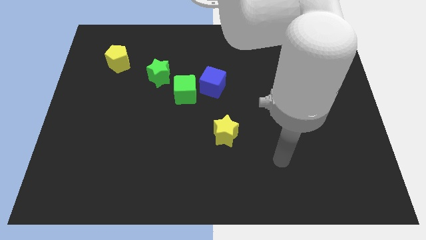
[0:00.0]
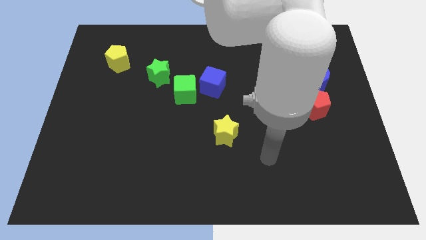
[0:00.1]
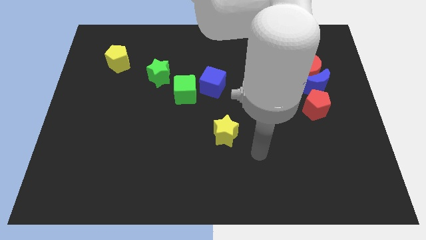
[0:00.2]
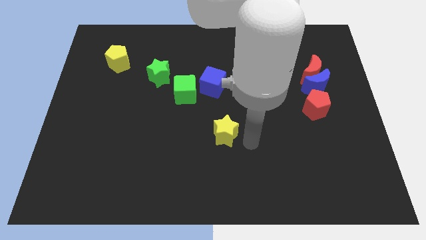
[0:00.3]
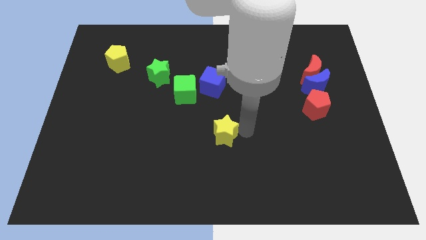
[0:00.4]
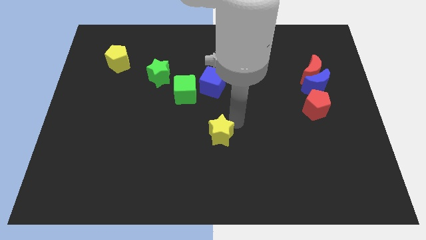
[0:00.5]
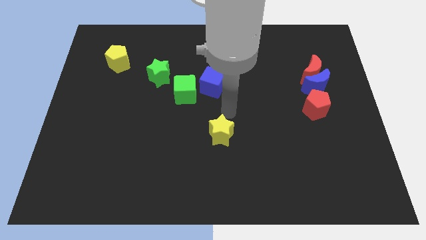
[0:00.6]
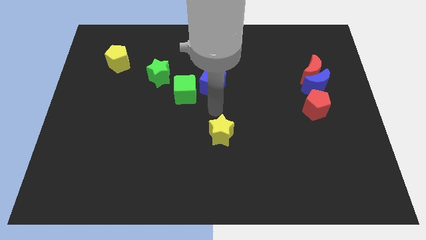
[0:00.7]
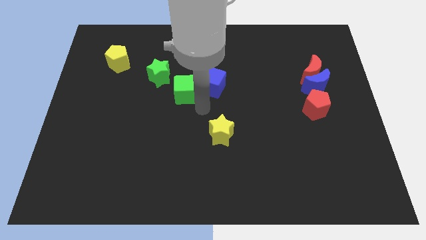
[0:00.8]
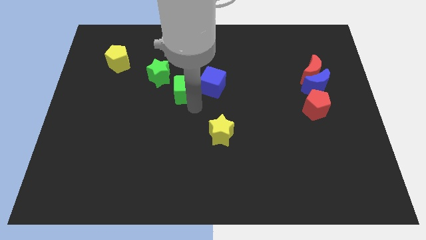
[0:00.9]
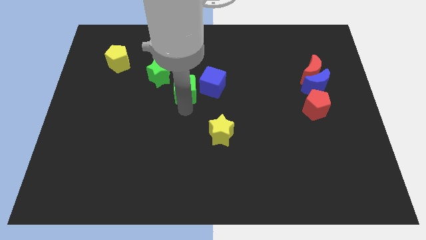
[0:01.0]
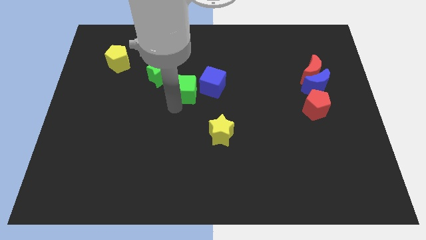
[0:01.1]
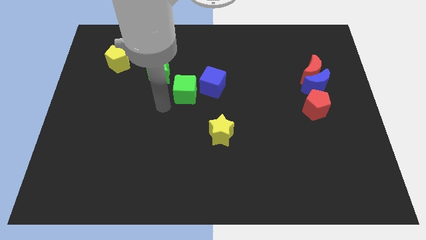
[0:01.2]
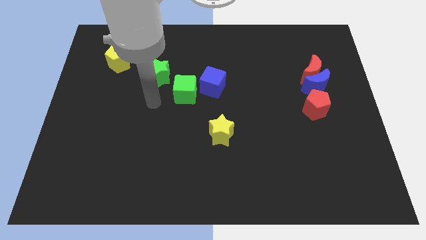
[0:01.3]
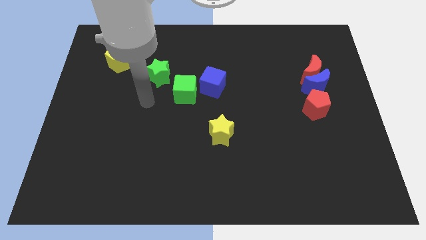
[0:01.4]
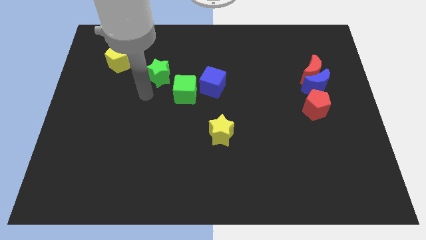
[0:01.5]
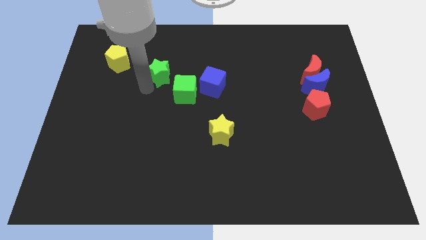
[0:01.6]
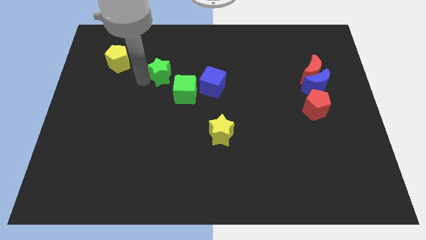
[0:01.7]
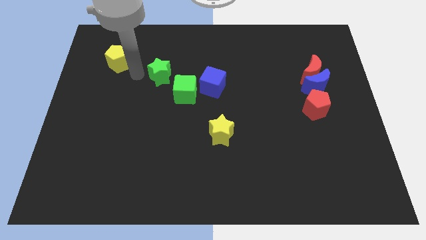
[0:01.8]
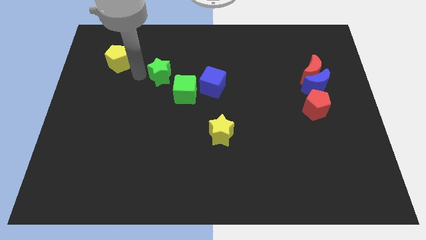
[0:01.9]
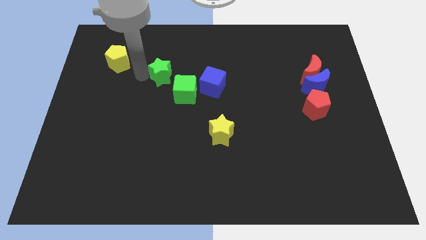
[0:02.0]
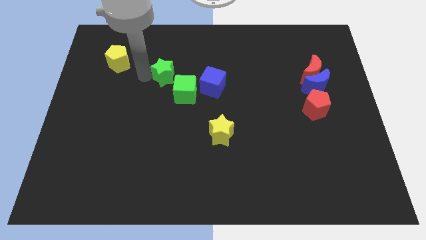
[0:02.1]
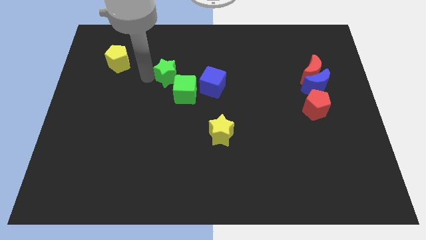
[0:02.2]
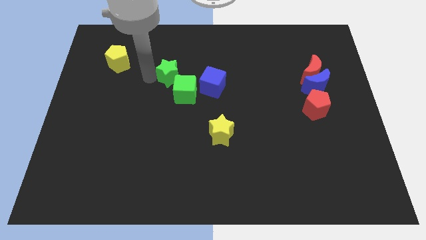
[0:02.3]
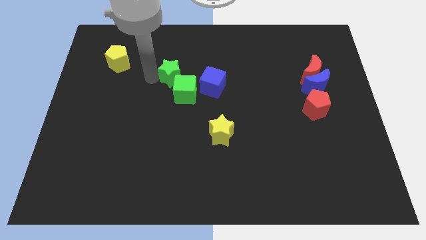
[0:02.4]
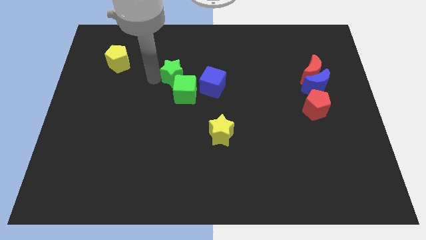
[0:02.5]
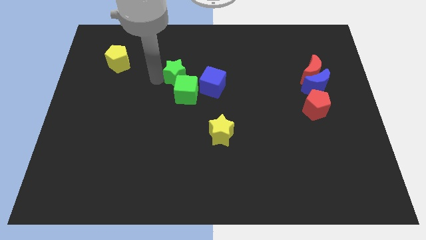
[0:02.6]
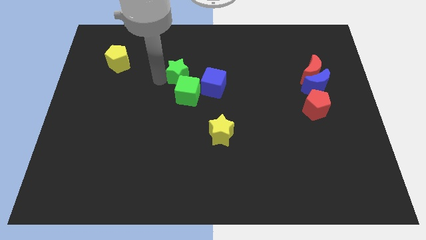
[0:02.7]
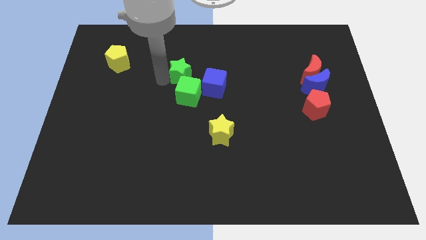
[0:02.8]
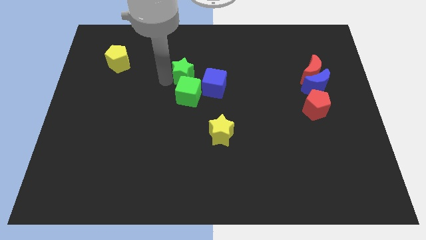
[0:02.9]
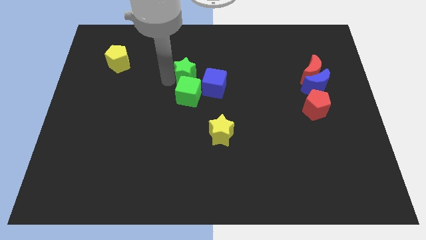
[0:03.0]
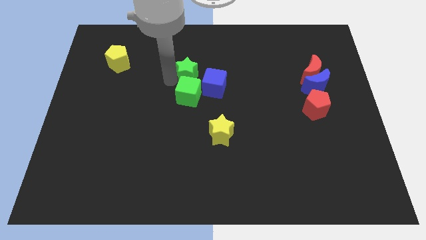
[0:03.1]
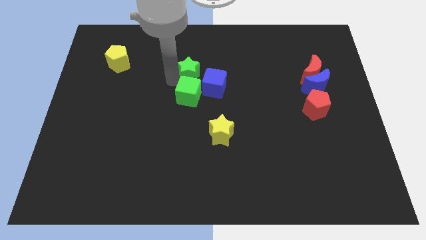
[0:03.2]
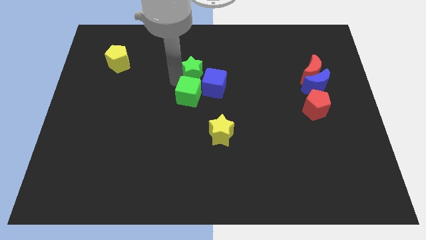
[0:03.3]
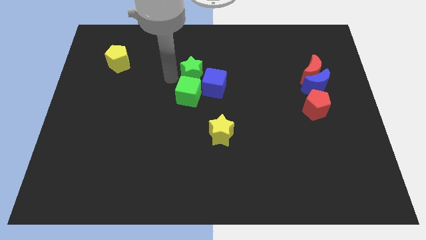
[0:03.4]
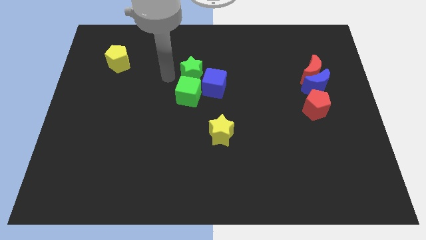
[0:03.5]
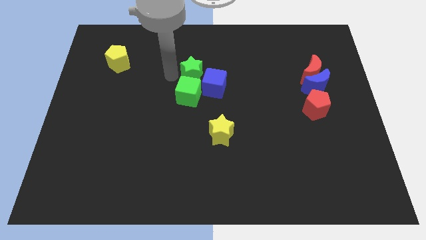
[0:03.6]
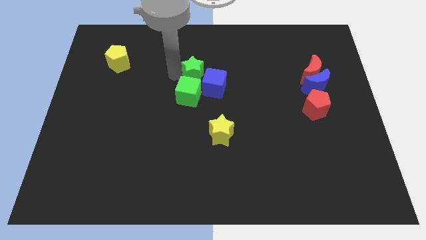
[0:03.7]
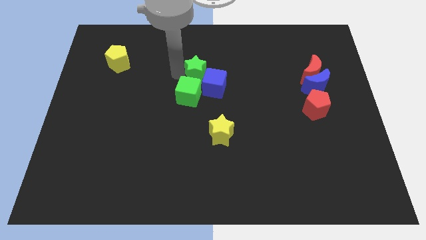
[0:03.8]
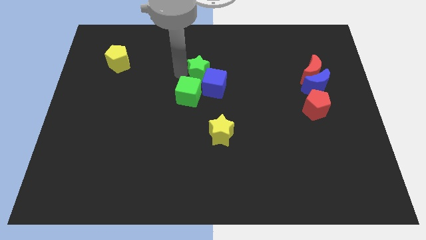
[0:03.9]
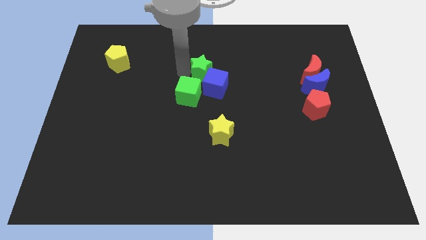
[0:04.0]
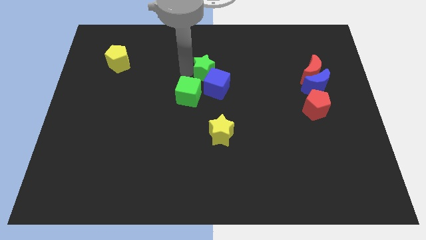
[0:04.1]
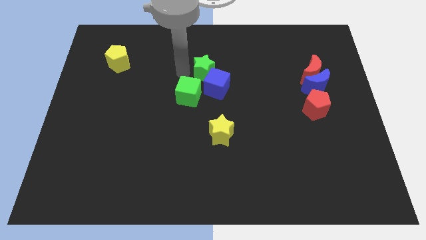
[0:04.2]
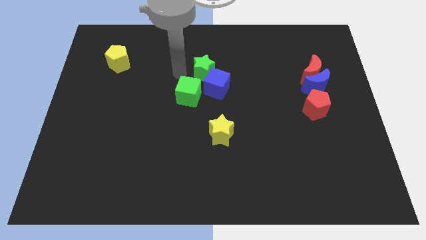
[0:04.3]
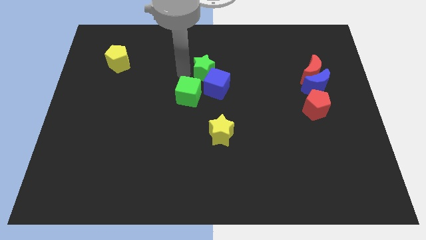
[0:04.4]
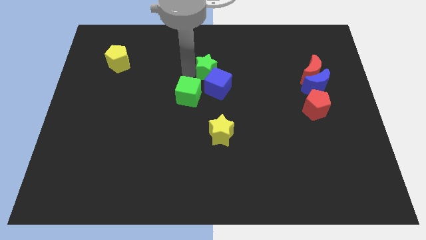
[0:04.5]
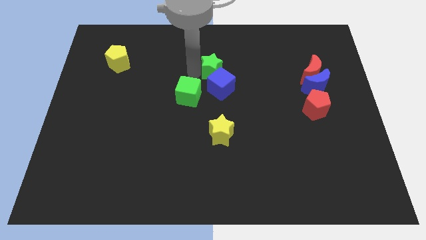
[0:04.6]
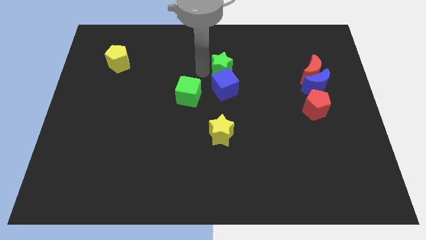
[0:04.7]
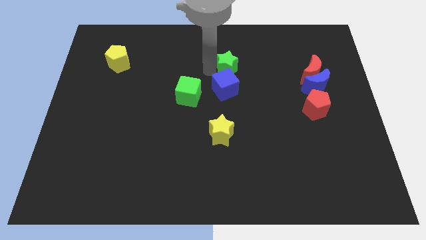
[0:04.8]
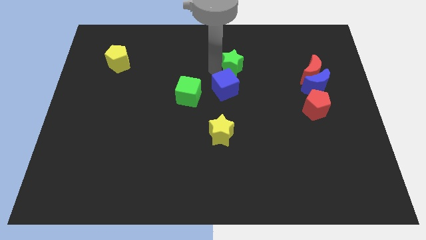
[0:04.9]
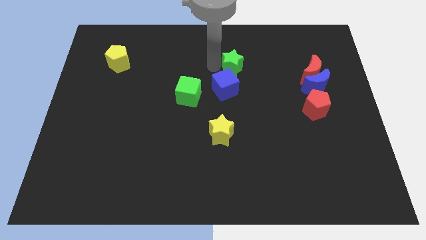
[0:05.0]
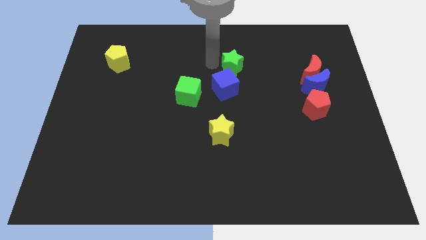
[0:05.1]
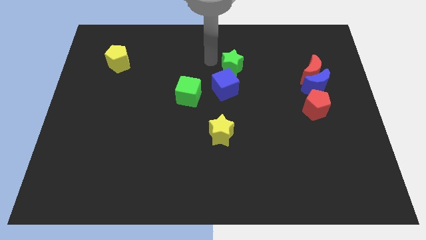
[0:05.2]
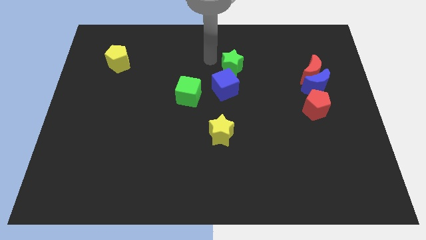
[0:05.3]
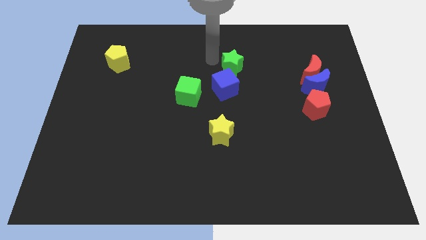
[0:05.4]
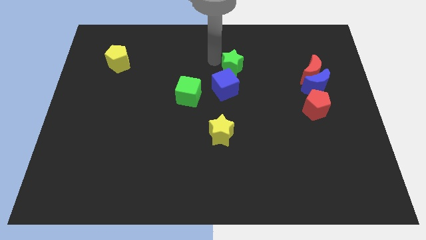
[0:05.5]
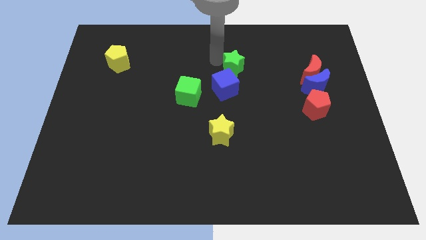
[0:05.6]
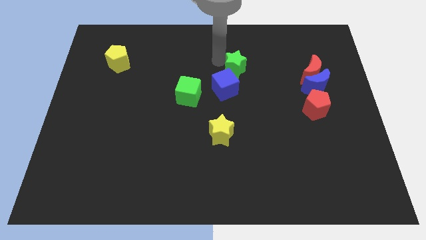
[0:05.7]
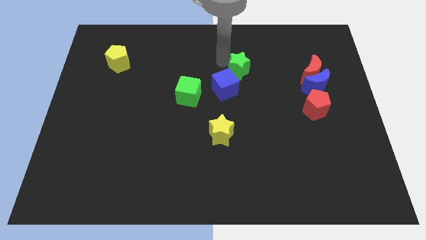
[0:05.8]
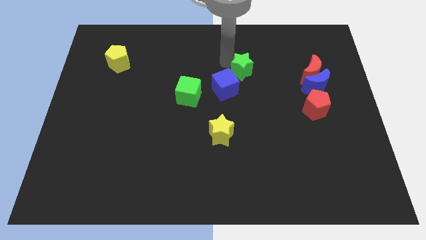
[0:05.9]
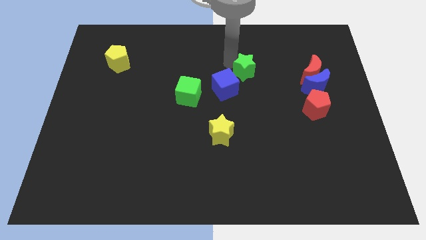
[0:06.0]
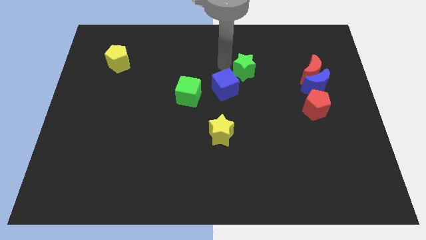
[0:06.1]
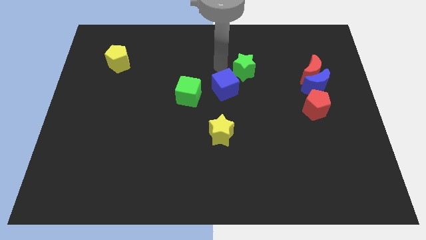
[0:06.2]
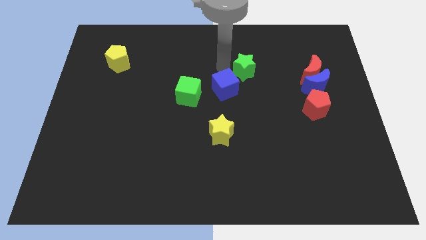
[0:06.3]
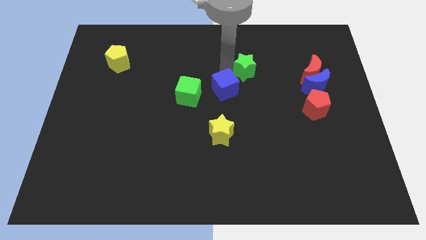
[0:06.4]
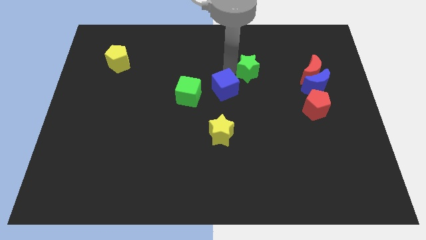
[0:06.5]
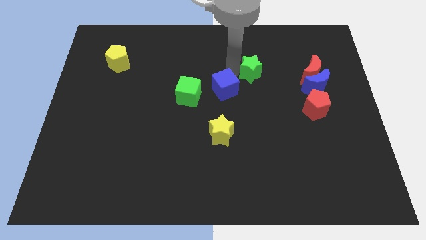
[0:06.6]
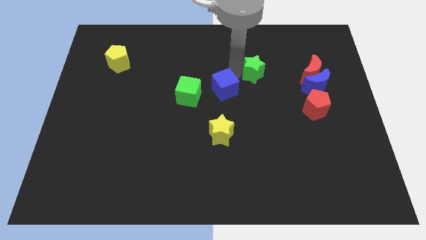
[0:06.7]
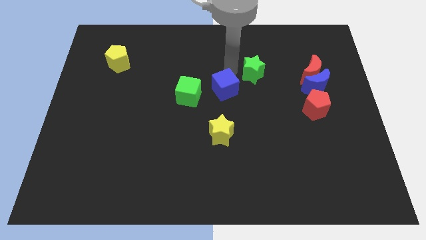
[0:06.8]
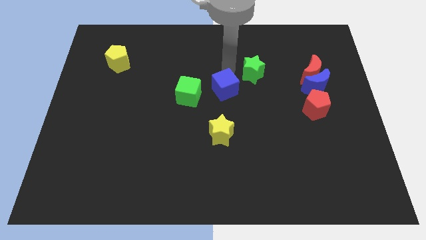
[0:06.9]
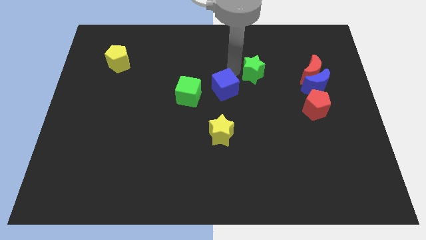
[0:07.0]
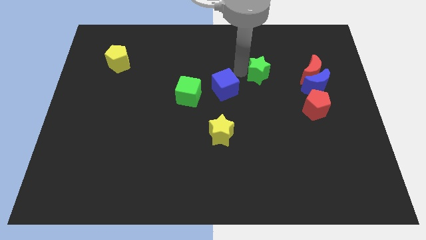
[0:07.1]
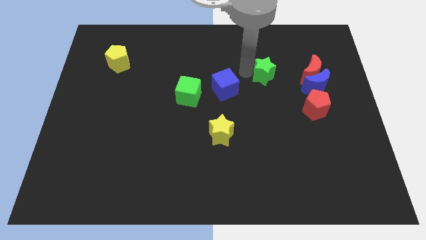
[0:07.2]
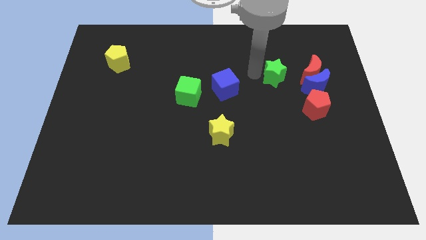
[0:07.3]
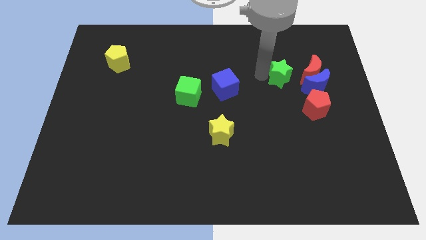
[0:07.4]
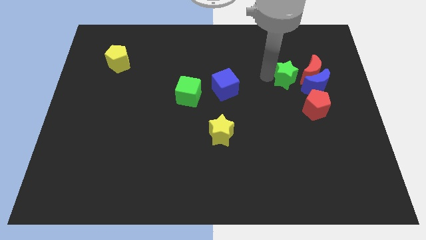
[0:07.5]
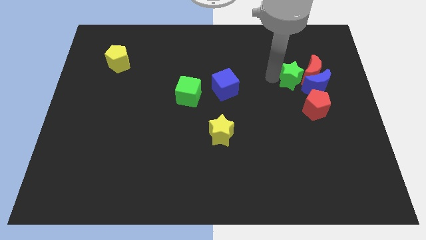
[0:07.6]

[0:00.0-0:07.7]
put the green star close to the red moon
